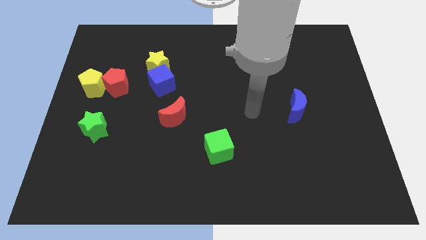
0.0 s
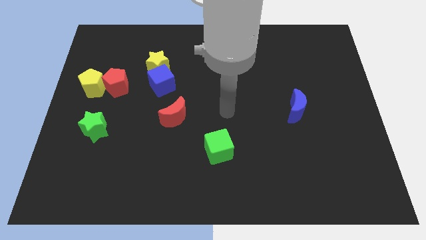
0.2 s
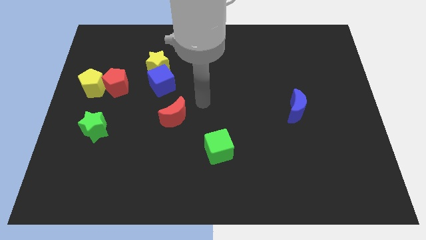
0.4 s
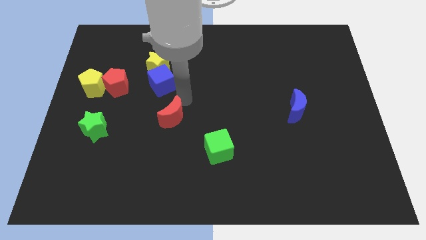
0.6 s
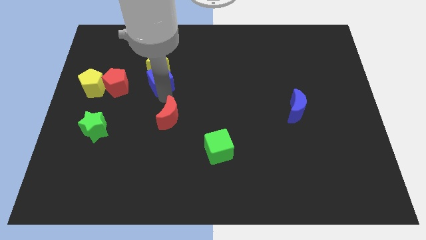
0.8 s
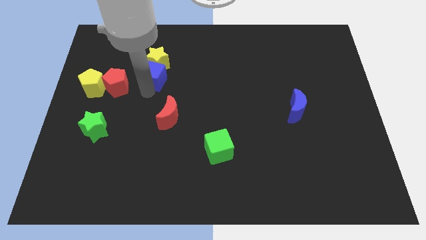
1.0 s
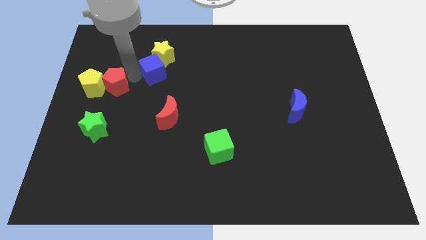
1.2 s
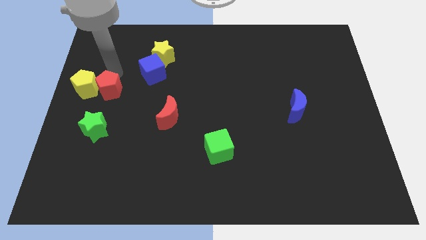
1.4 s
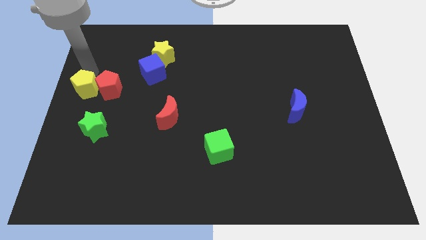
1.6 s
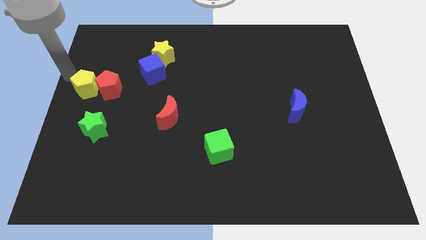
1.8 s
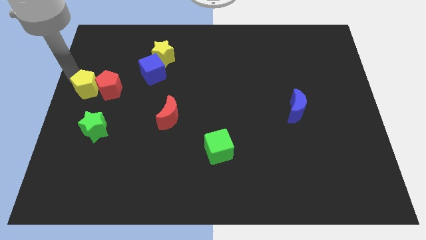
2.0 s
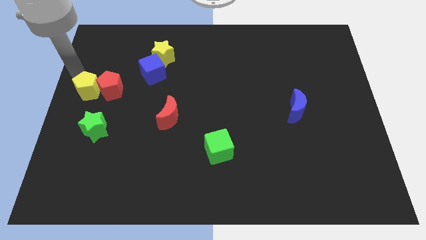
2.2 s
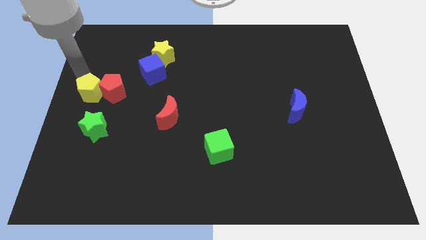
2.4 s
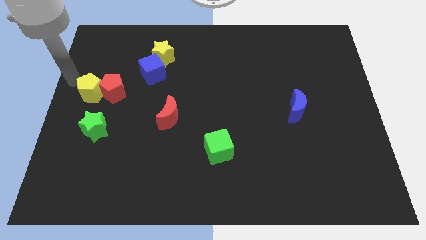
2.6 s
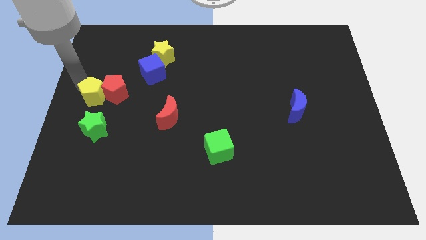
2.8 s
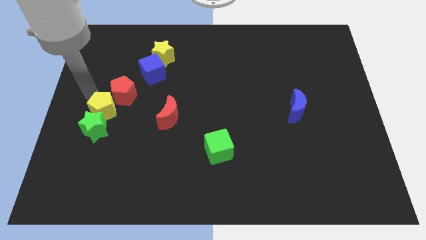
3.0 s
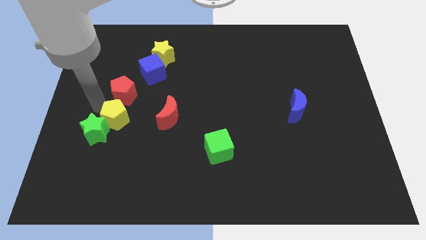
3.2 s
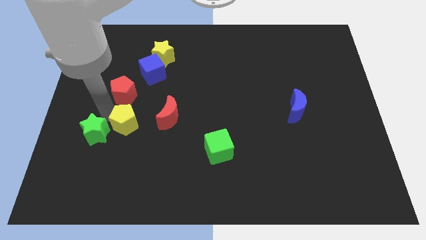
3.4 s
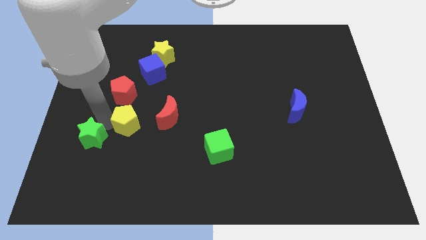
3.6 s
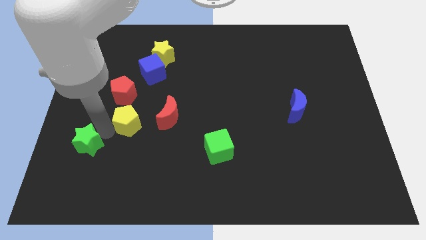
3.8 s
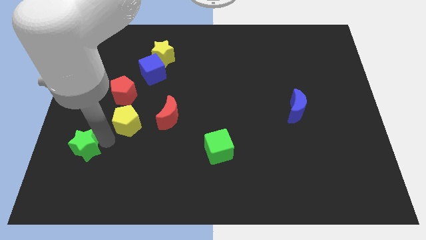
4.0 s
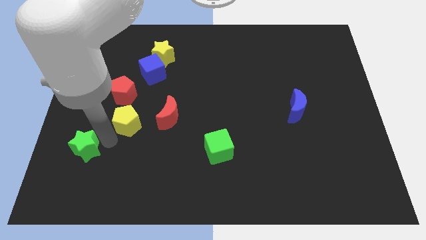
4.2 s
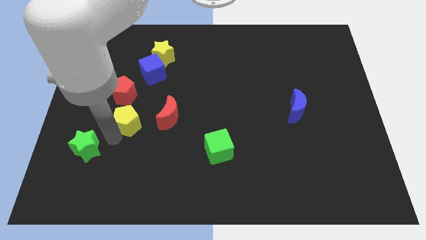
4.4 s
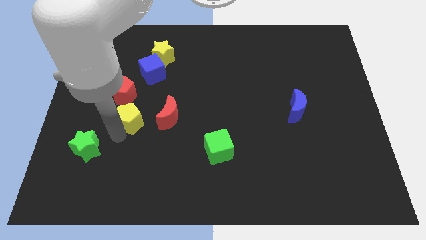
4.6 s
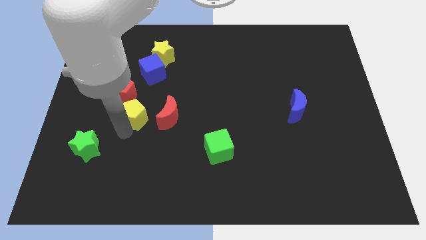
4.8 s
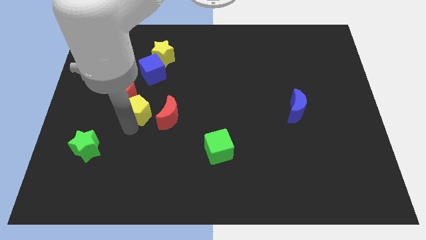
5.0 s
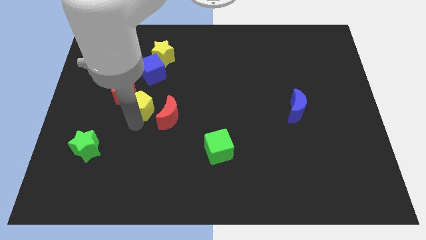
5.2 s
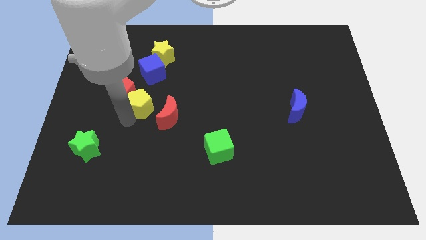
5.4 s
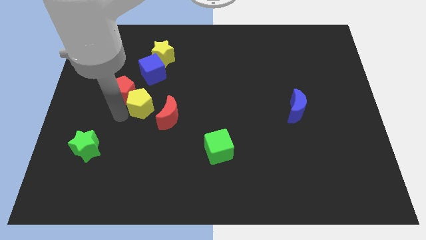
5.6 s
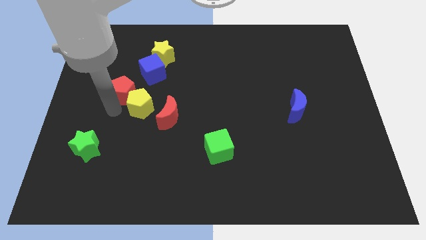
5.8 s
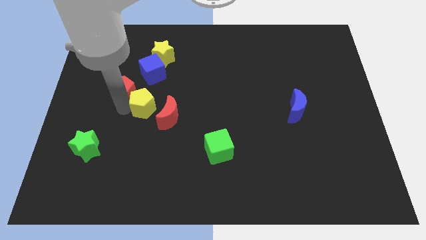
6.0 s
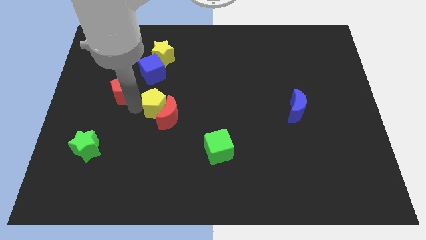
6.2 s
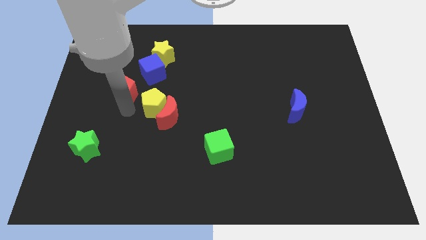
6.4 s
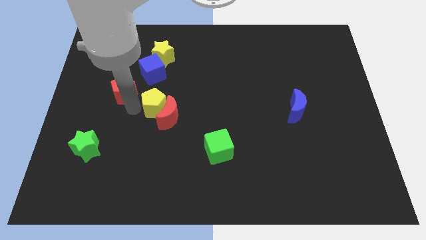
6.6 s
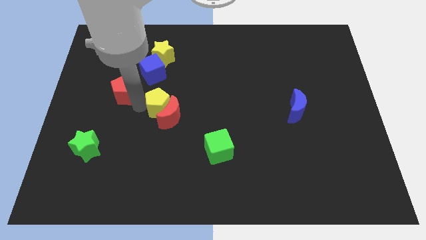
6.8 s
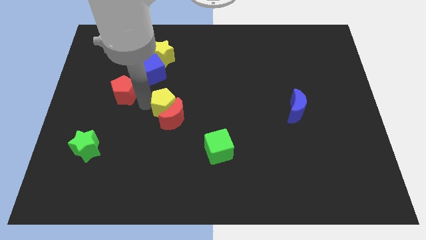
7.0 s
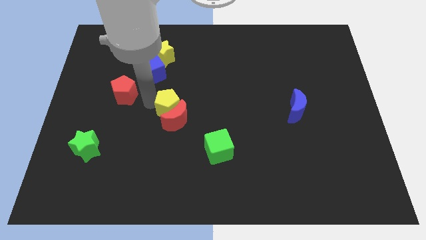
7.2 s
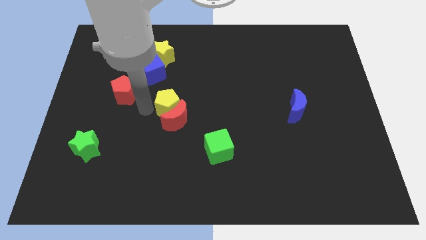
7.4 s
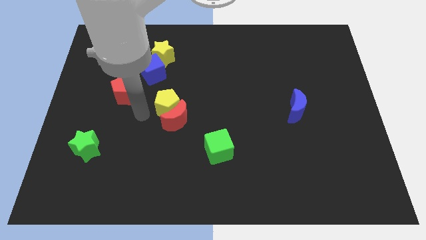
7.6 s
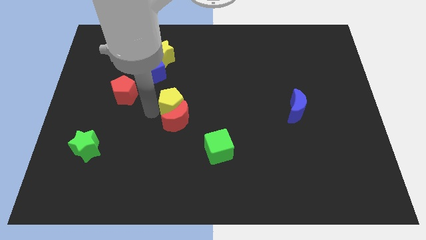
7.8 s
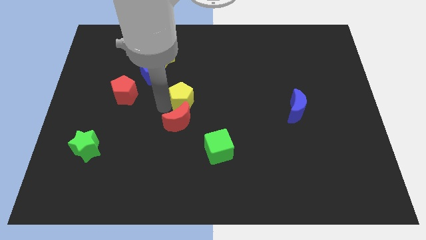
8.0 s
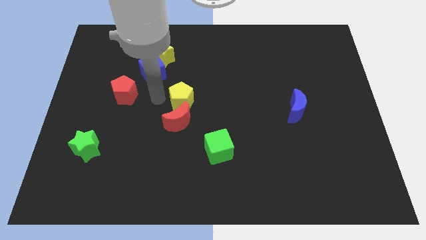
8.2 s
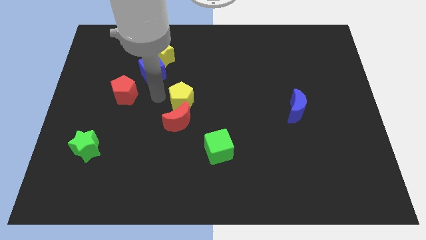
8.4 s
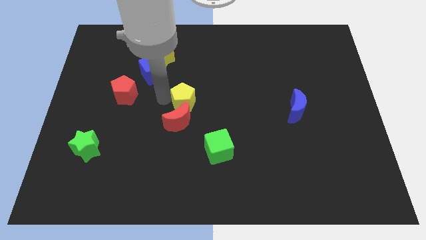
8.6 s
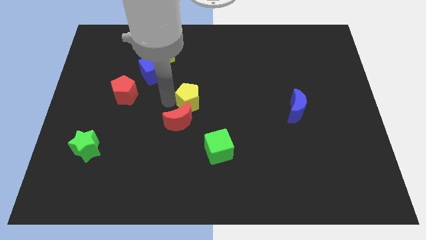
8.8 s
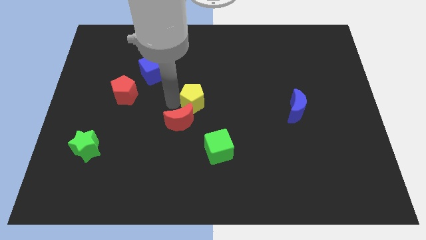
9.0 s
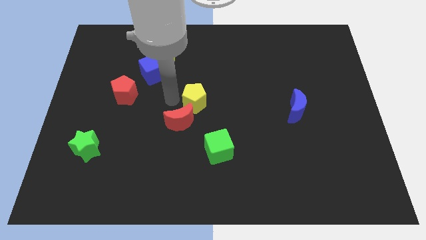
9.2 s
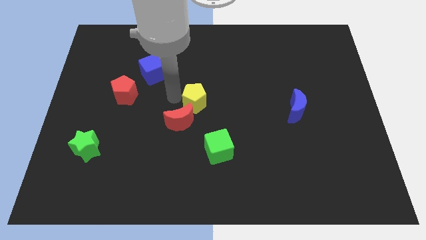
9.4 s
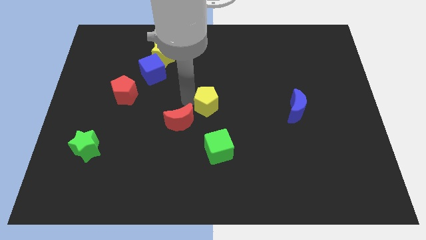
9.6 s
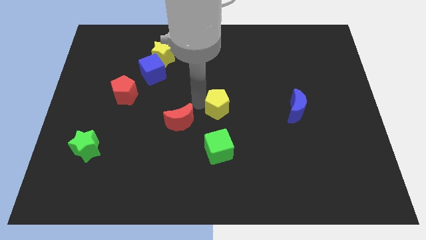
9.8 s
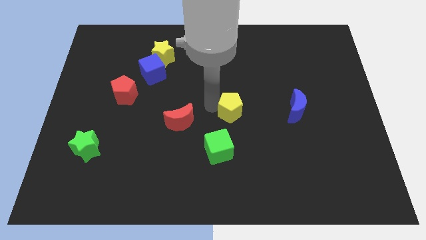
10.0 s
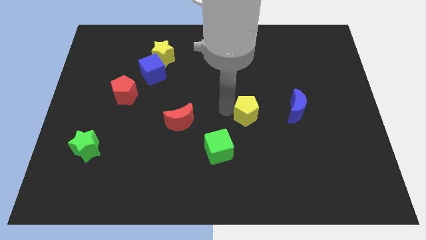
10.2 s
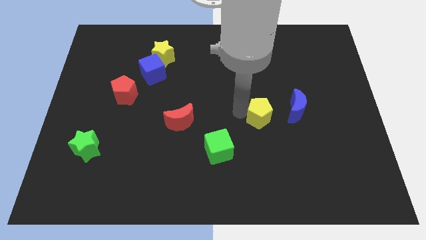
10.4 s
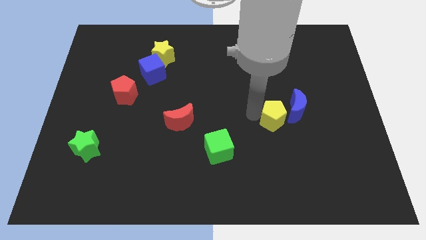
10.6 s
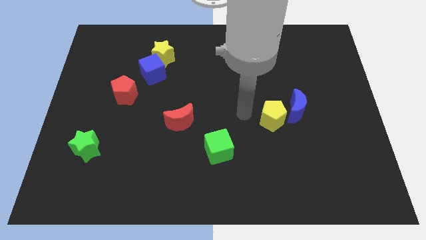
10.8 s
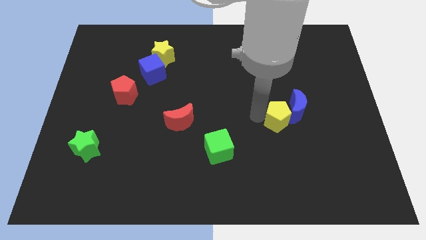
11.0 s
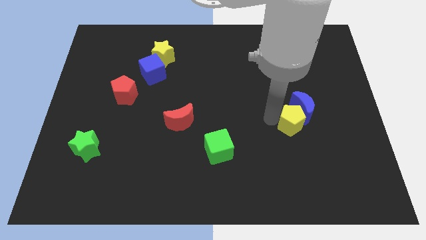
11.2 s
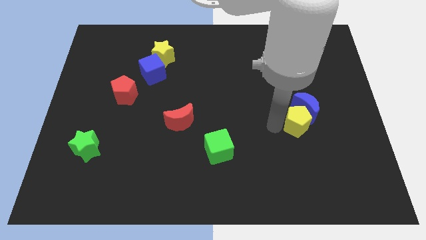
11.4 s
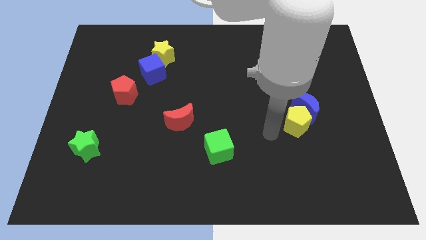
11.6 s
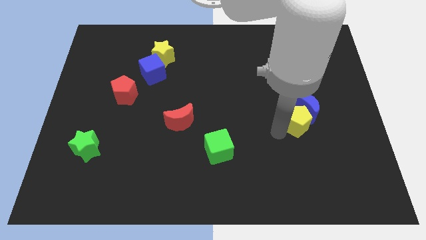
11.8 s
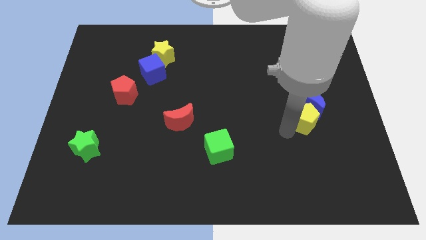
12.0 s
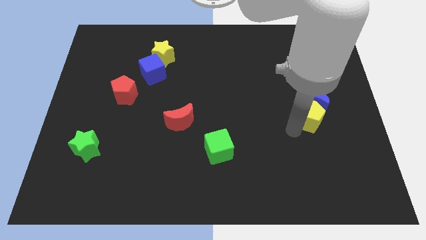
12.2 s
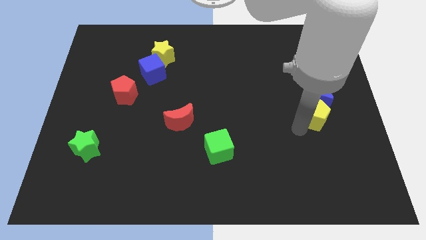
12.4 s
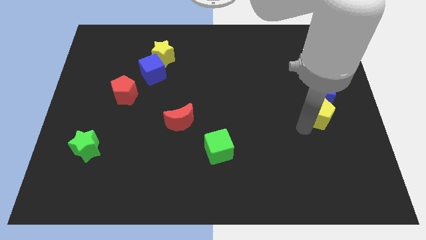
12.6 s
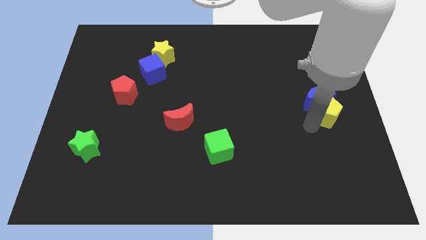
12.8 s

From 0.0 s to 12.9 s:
move the yellow pentagon to the right side of the board
